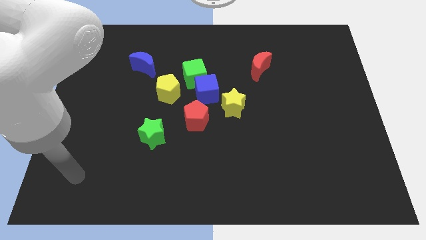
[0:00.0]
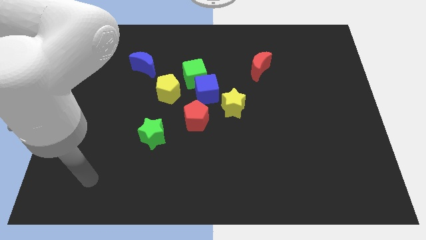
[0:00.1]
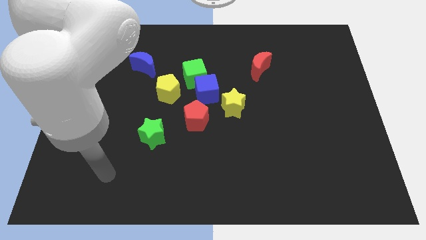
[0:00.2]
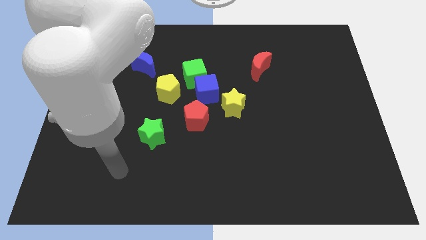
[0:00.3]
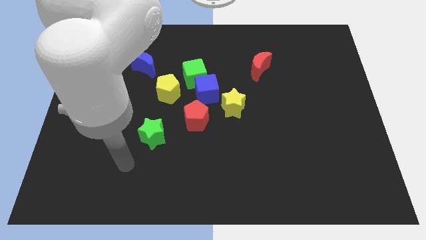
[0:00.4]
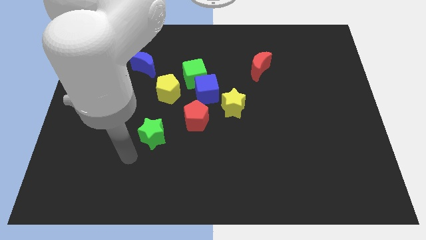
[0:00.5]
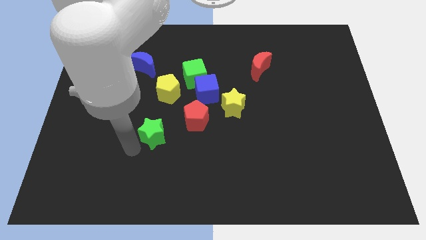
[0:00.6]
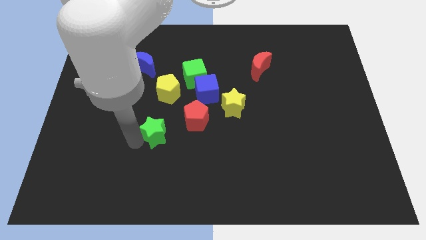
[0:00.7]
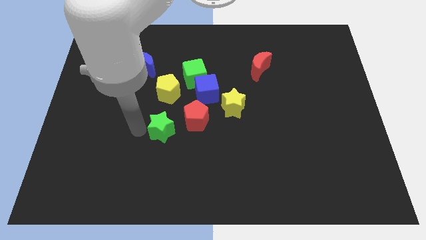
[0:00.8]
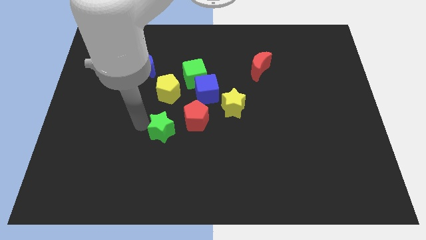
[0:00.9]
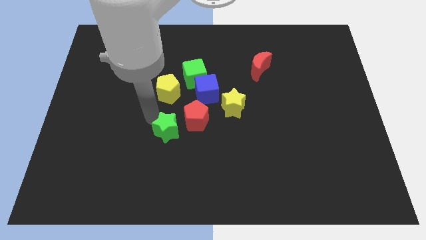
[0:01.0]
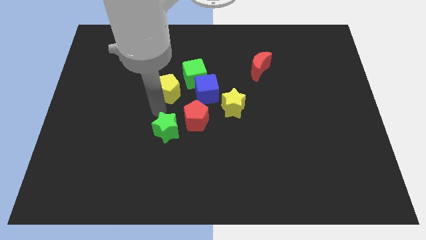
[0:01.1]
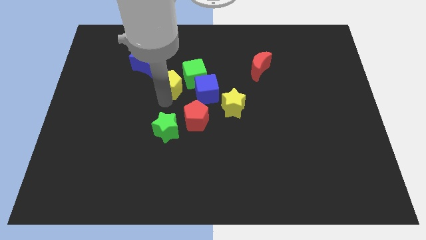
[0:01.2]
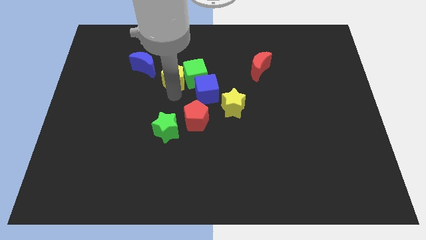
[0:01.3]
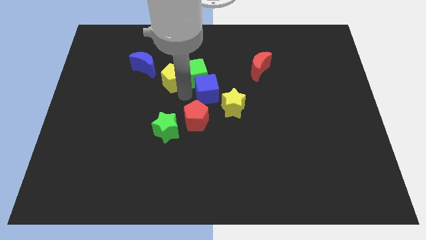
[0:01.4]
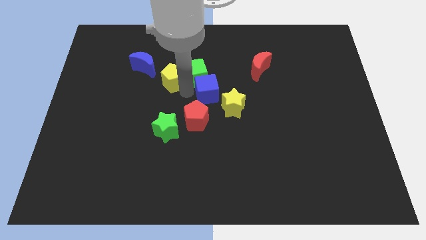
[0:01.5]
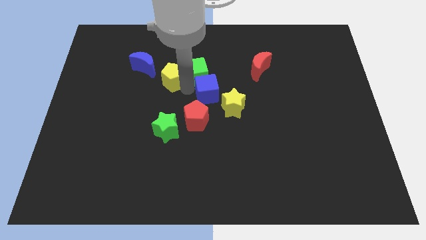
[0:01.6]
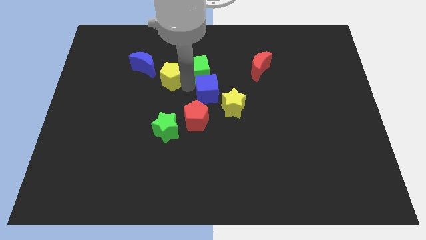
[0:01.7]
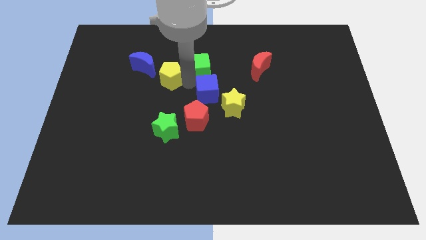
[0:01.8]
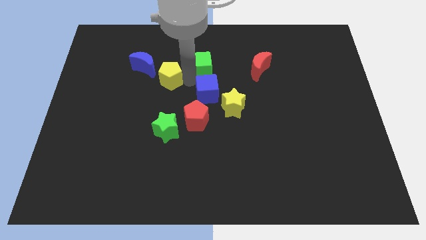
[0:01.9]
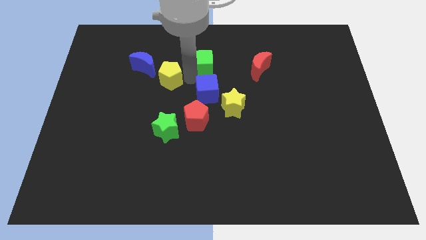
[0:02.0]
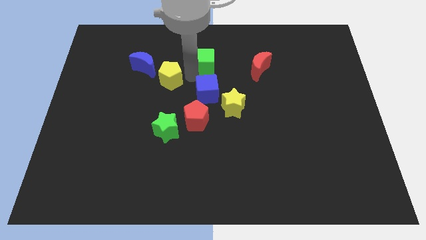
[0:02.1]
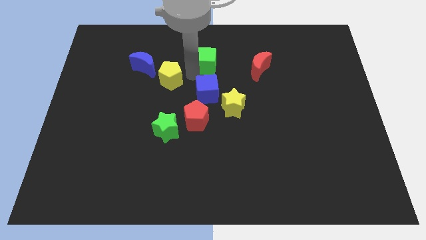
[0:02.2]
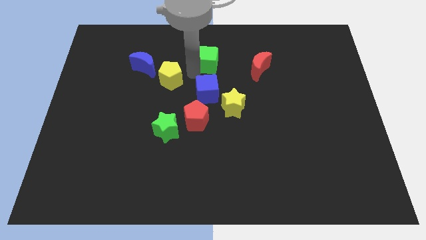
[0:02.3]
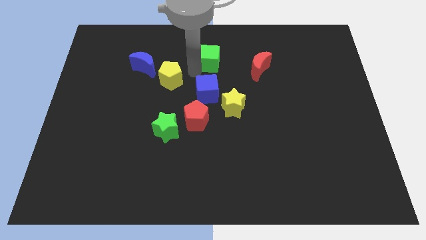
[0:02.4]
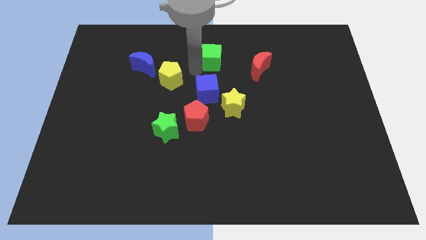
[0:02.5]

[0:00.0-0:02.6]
separate the green cube from the blue cube and yellow pentagon

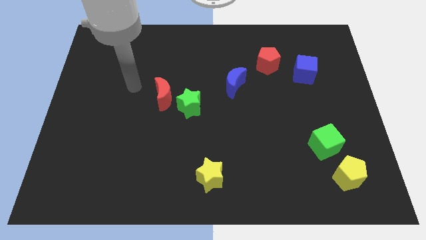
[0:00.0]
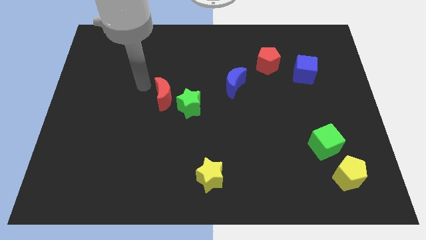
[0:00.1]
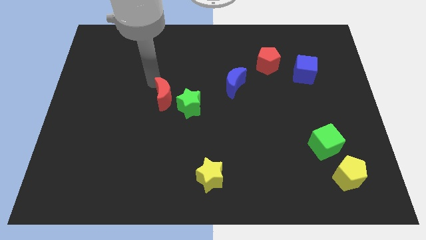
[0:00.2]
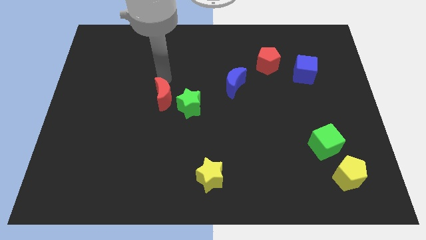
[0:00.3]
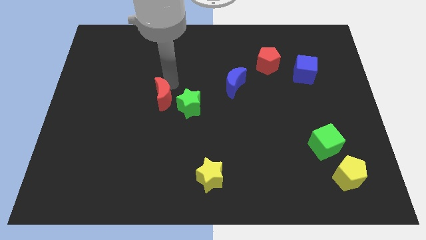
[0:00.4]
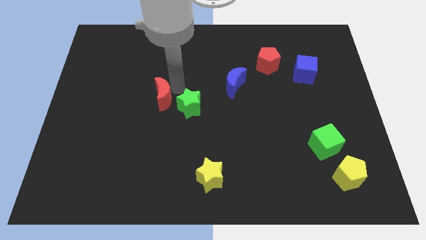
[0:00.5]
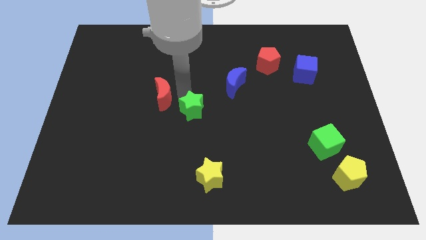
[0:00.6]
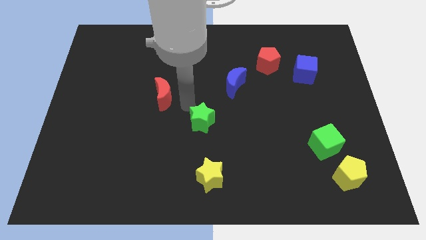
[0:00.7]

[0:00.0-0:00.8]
pull the red moon apart from the green star

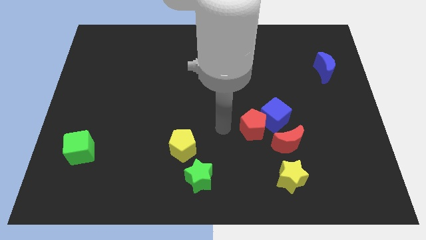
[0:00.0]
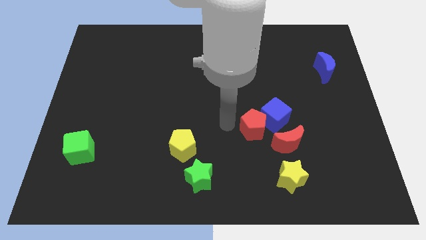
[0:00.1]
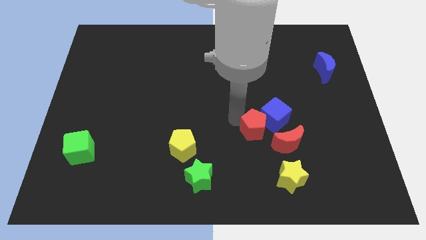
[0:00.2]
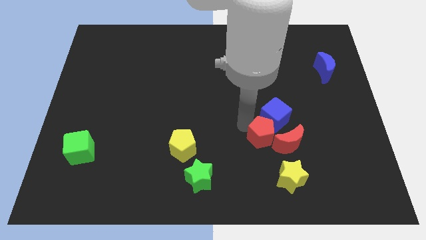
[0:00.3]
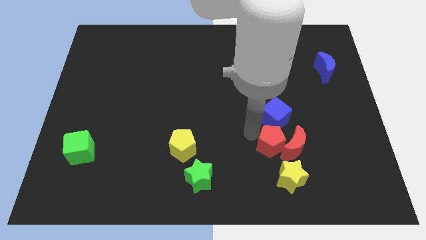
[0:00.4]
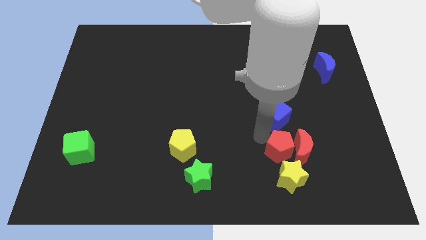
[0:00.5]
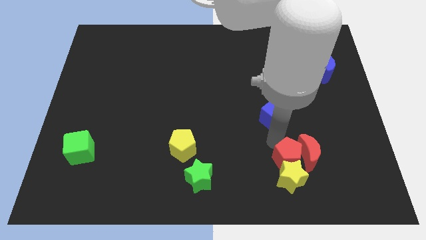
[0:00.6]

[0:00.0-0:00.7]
separate the blue cube from the red pentagon and red moon

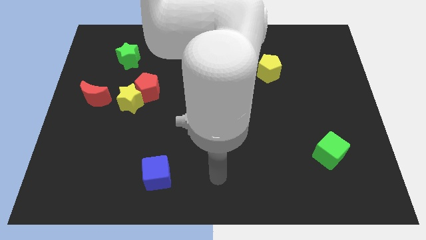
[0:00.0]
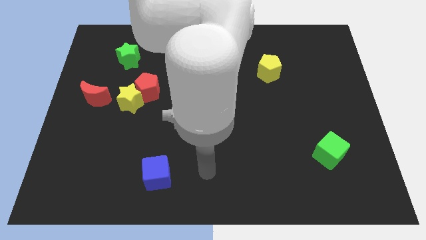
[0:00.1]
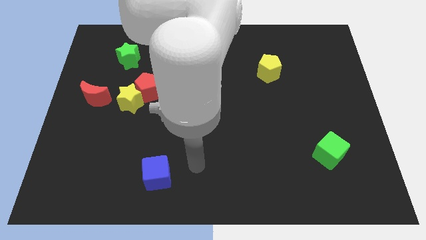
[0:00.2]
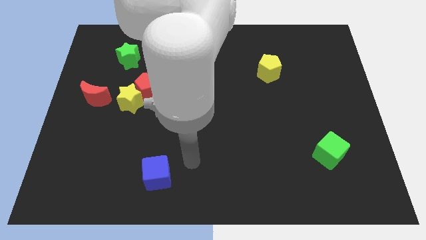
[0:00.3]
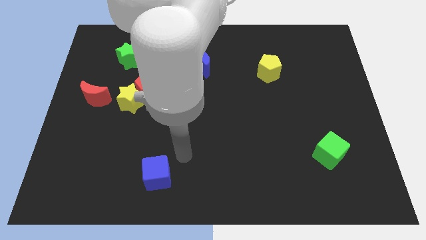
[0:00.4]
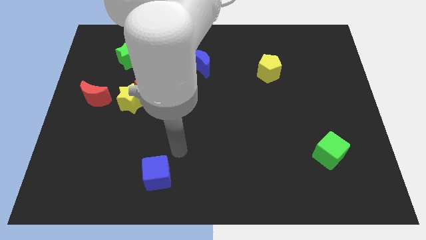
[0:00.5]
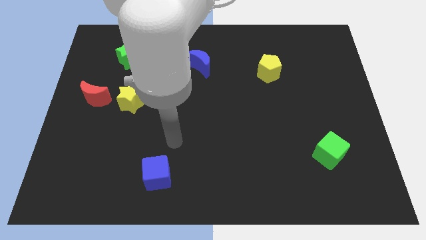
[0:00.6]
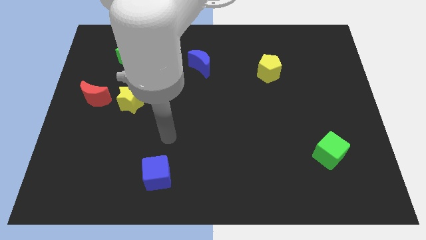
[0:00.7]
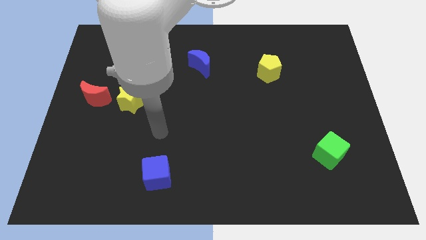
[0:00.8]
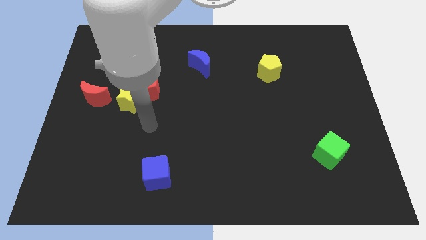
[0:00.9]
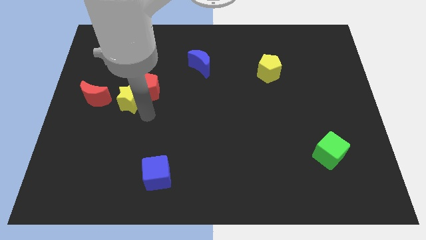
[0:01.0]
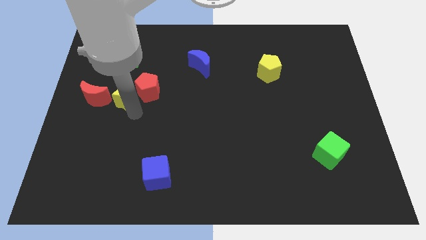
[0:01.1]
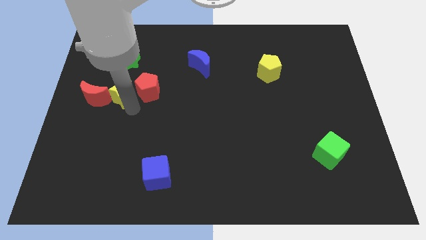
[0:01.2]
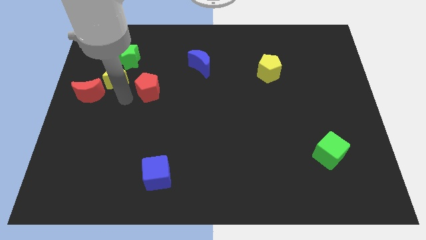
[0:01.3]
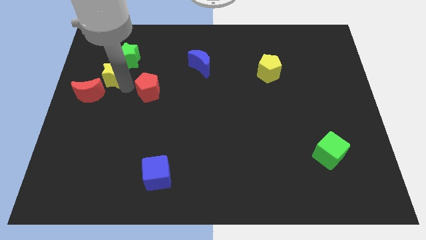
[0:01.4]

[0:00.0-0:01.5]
move the red pentagon away from the yellow star

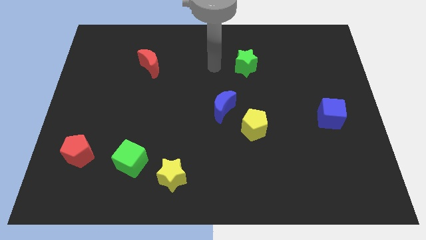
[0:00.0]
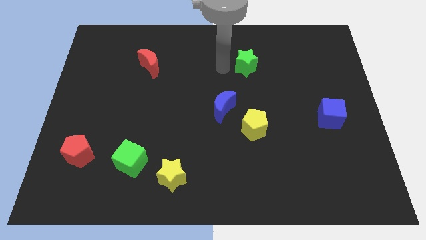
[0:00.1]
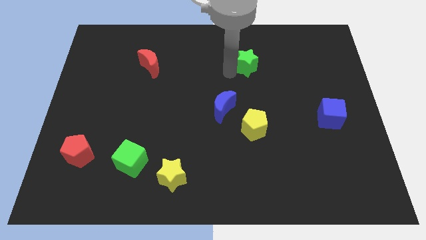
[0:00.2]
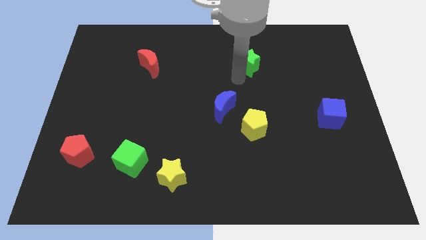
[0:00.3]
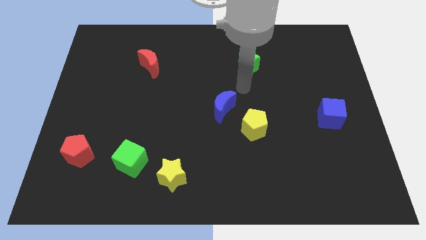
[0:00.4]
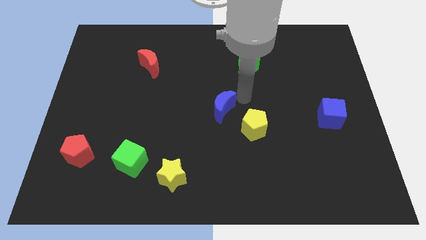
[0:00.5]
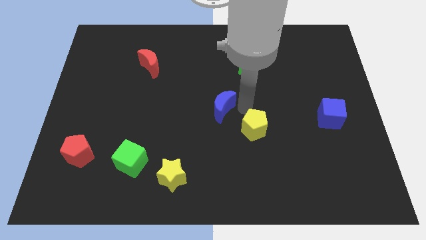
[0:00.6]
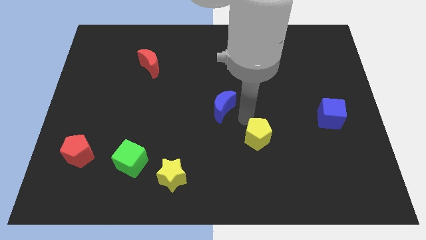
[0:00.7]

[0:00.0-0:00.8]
pull the blue moon apart from the yellow pentagon

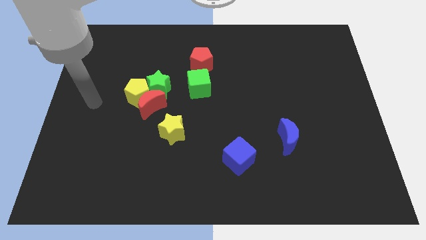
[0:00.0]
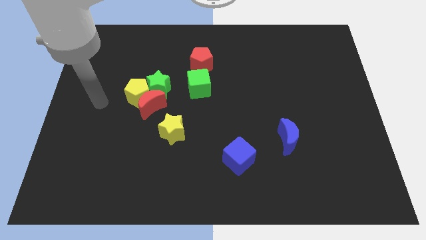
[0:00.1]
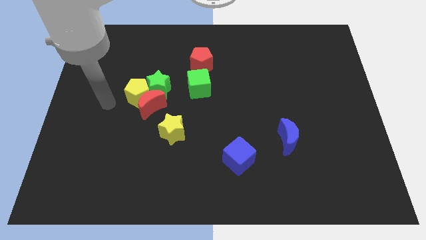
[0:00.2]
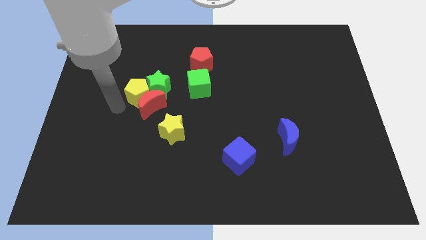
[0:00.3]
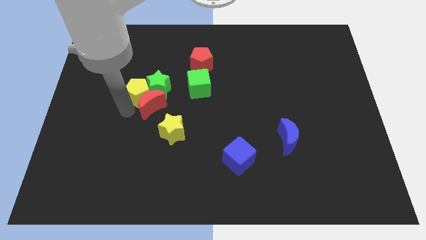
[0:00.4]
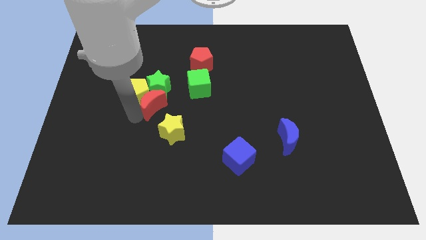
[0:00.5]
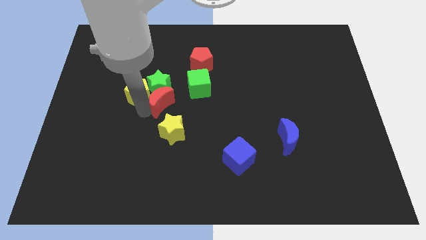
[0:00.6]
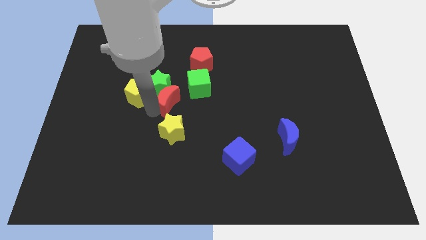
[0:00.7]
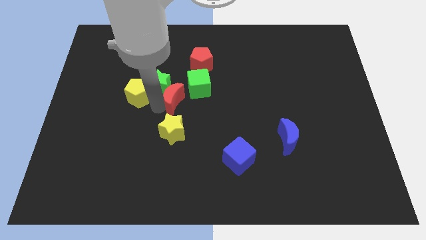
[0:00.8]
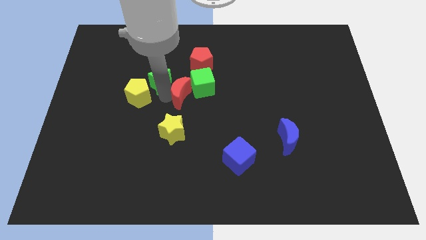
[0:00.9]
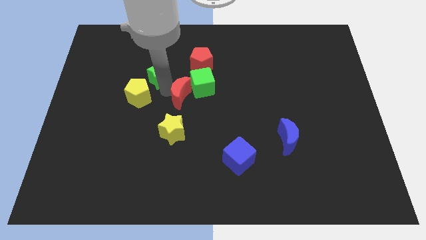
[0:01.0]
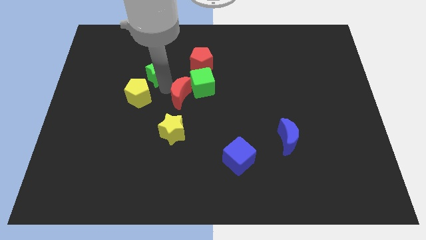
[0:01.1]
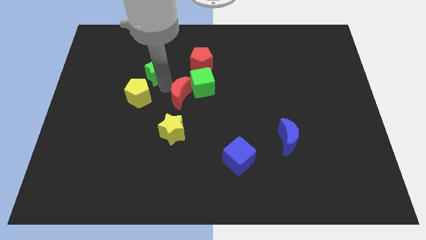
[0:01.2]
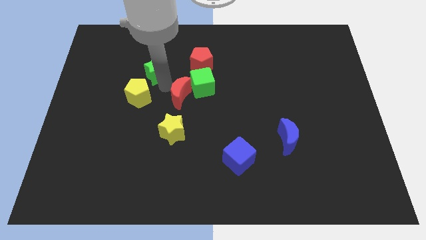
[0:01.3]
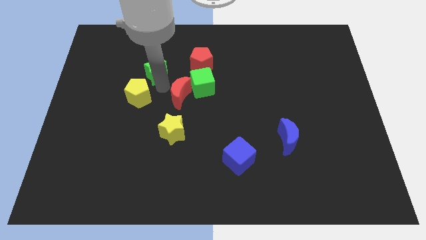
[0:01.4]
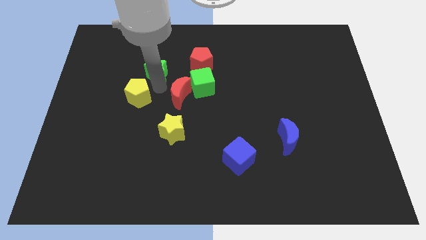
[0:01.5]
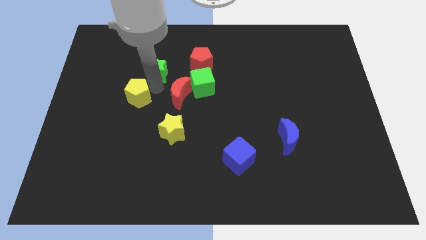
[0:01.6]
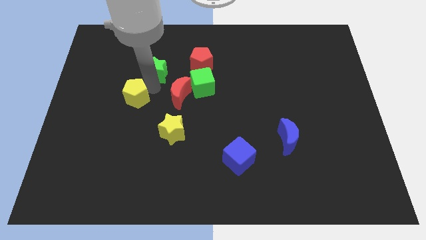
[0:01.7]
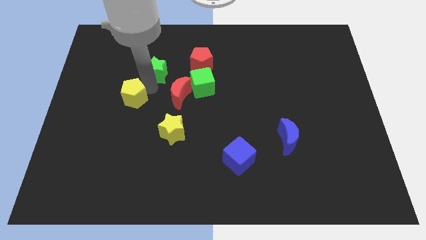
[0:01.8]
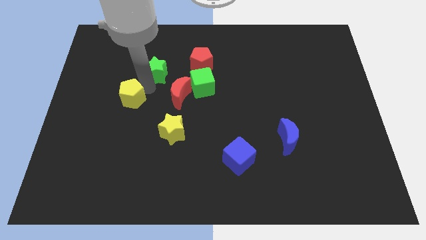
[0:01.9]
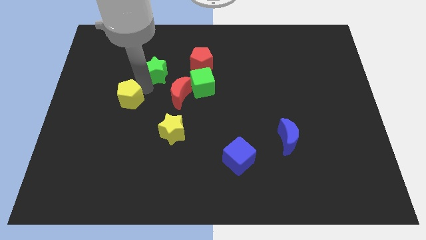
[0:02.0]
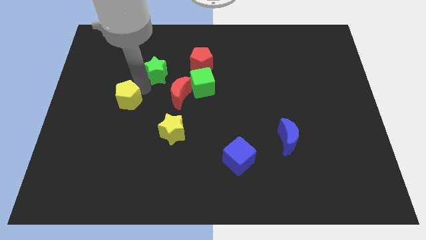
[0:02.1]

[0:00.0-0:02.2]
pull the yellow pentagon apart from the red moon and green star

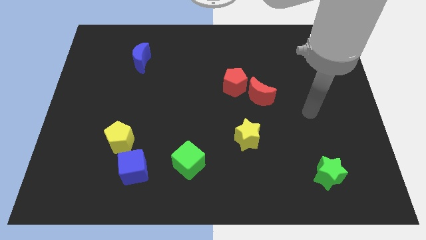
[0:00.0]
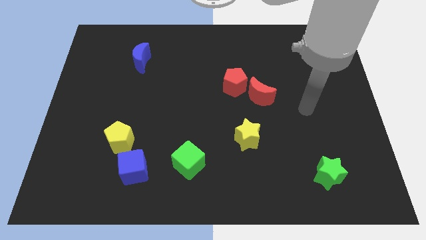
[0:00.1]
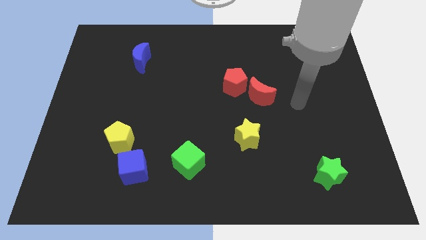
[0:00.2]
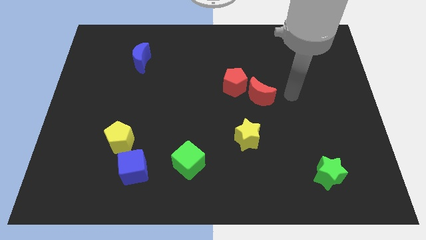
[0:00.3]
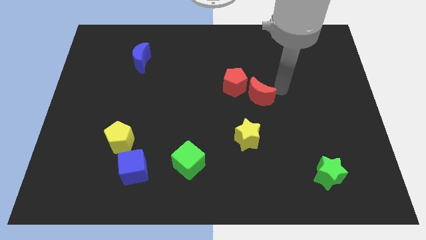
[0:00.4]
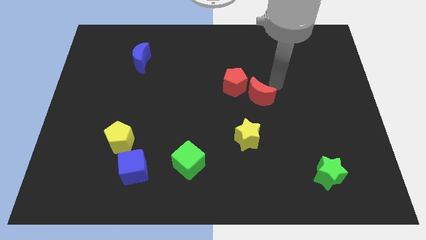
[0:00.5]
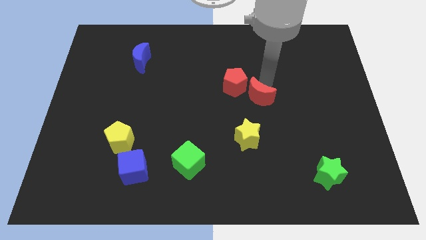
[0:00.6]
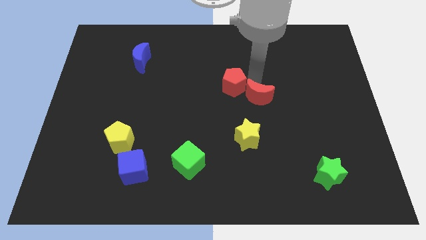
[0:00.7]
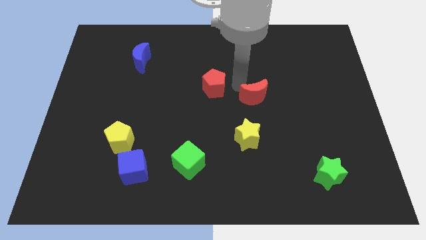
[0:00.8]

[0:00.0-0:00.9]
move the red moon away from the red pentagon
